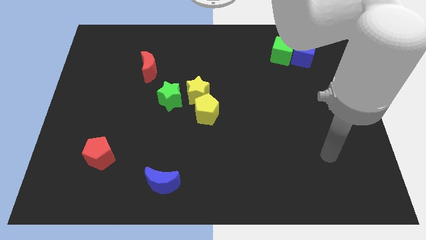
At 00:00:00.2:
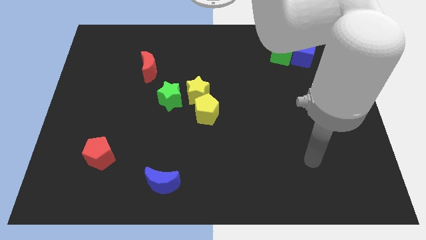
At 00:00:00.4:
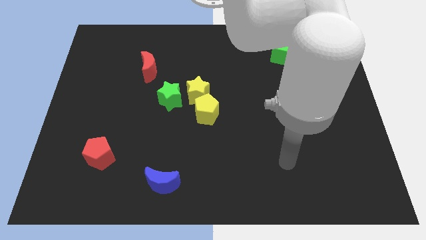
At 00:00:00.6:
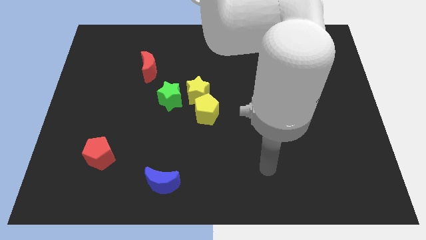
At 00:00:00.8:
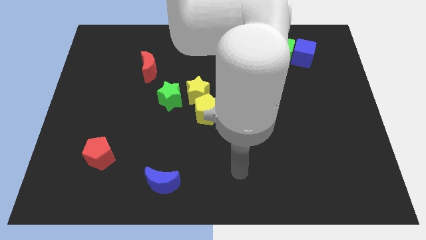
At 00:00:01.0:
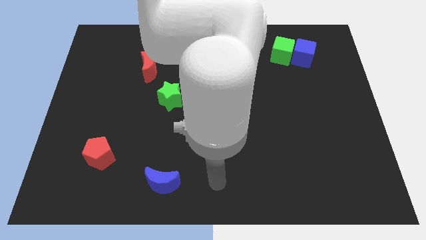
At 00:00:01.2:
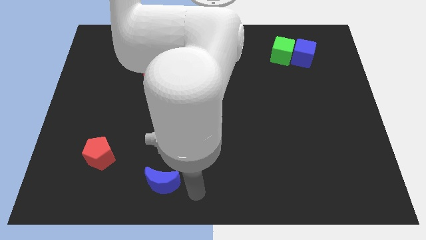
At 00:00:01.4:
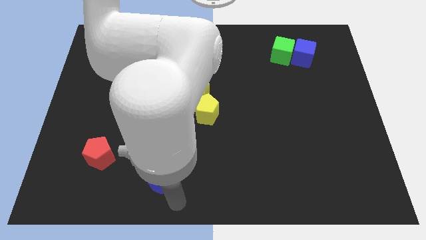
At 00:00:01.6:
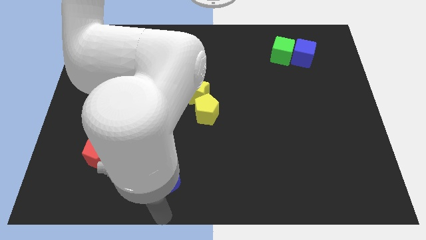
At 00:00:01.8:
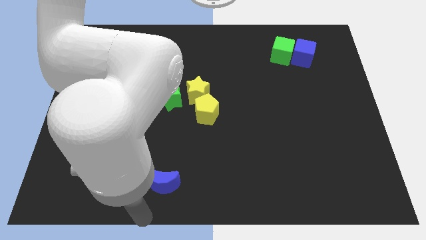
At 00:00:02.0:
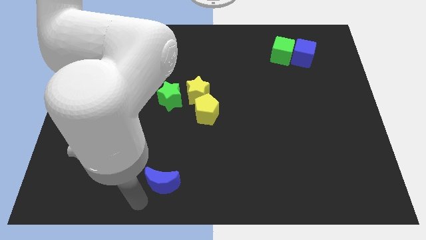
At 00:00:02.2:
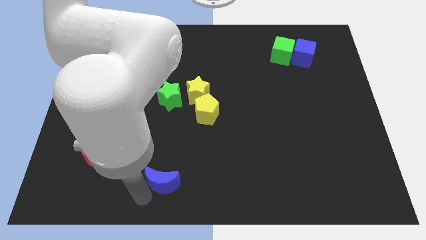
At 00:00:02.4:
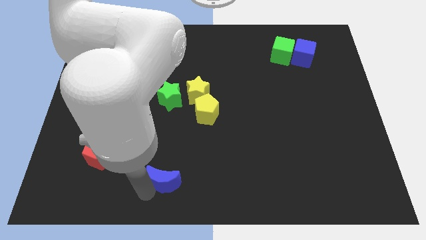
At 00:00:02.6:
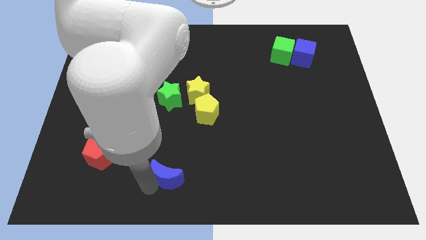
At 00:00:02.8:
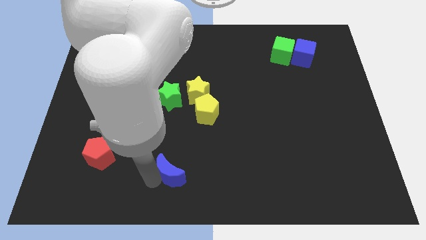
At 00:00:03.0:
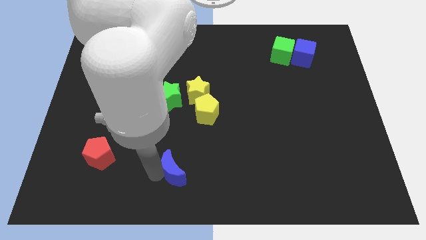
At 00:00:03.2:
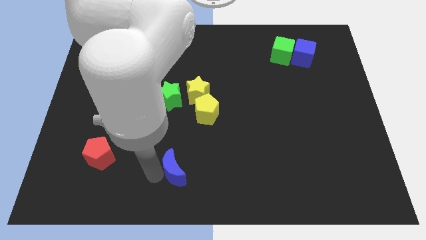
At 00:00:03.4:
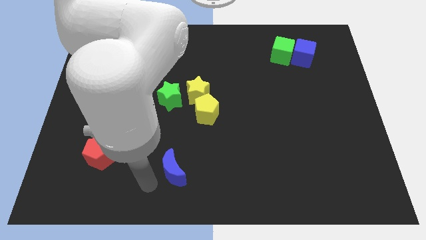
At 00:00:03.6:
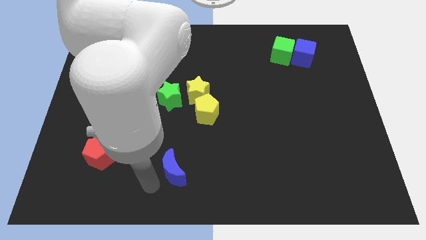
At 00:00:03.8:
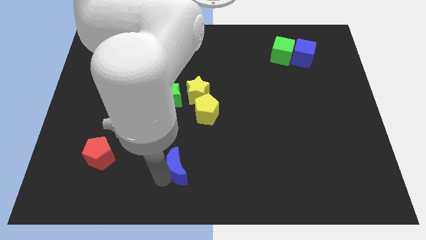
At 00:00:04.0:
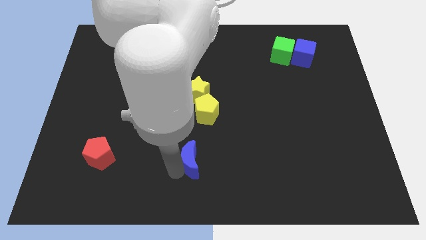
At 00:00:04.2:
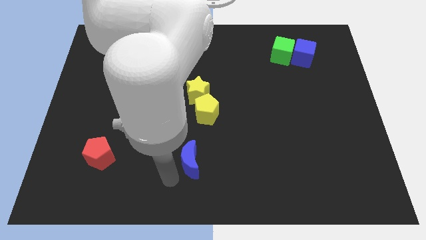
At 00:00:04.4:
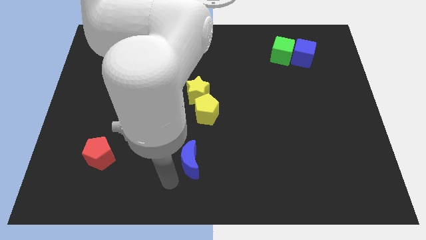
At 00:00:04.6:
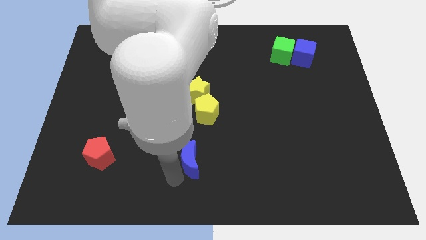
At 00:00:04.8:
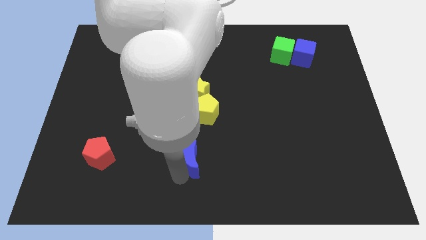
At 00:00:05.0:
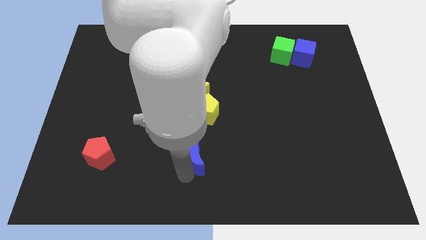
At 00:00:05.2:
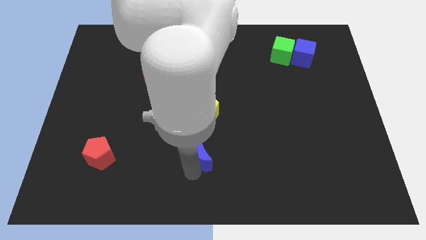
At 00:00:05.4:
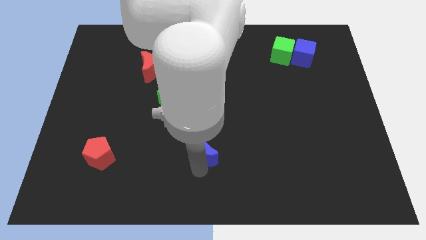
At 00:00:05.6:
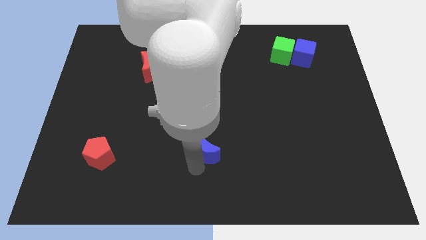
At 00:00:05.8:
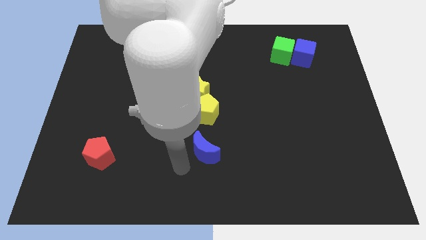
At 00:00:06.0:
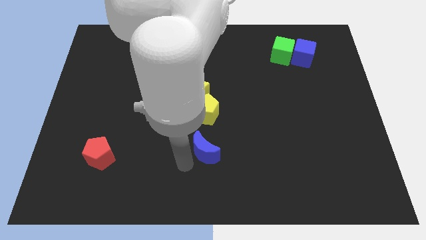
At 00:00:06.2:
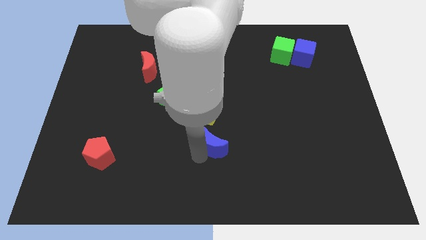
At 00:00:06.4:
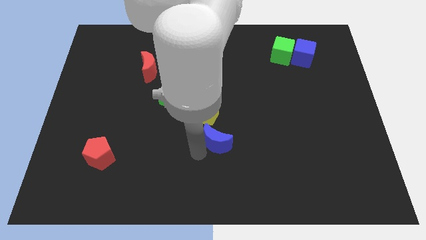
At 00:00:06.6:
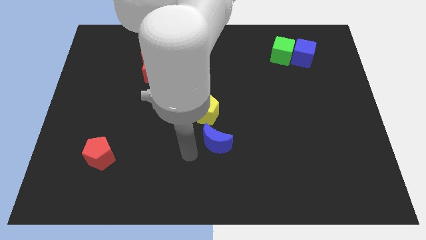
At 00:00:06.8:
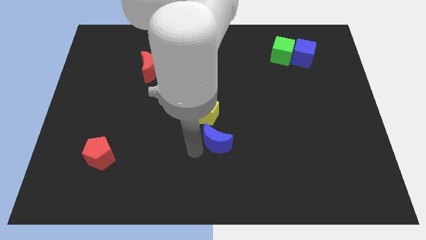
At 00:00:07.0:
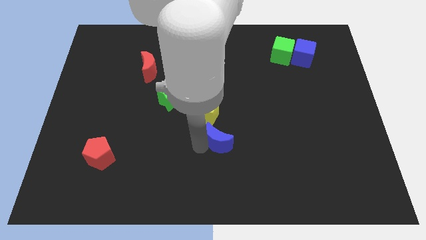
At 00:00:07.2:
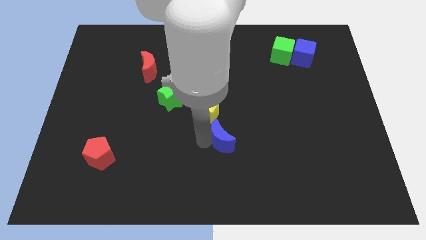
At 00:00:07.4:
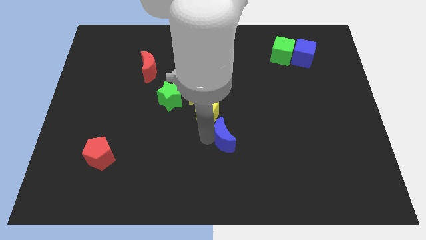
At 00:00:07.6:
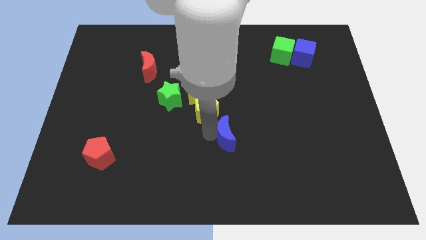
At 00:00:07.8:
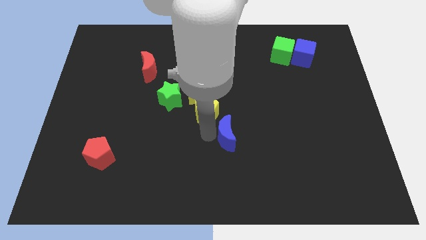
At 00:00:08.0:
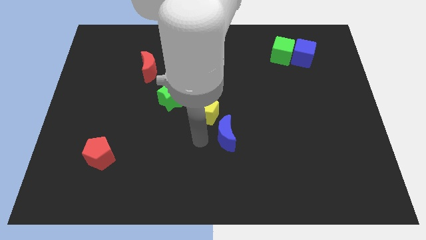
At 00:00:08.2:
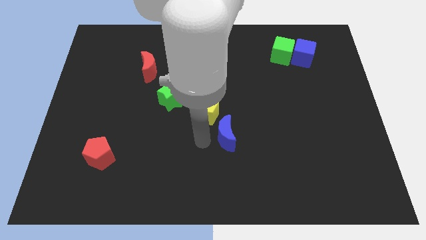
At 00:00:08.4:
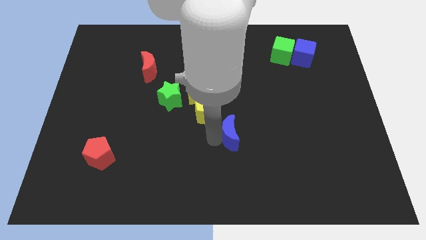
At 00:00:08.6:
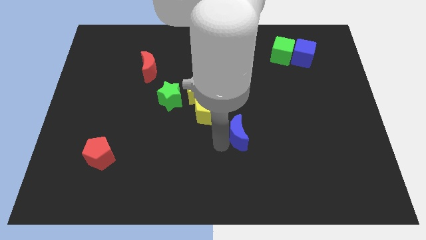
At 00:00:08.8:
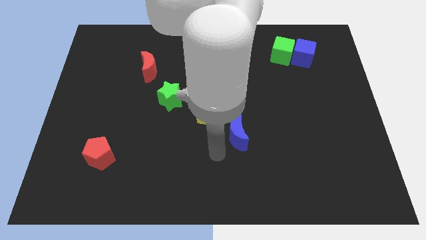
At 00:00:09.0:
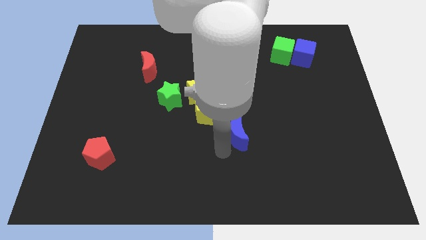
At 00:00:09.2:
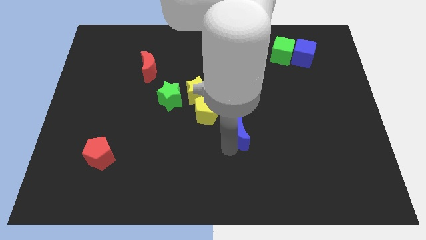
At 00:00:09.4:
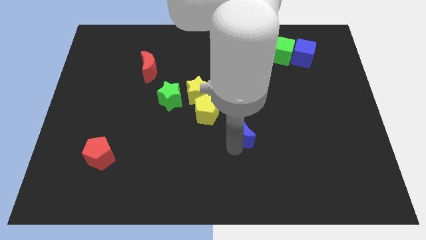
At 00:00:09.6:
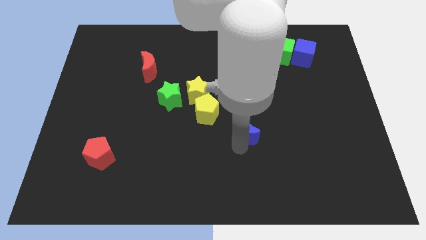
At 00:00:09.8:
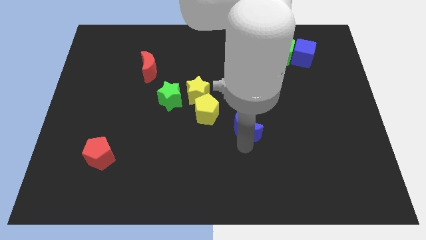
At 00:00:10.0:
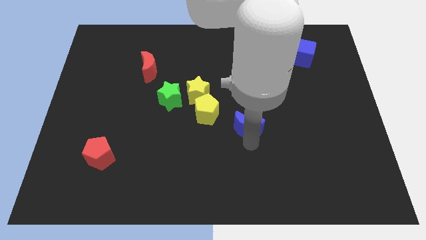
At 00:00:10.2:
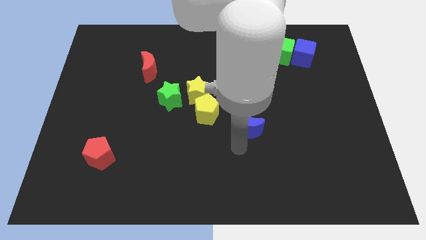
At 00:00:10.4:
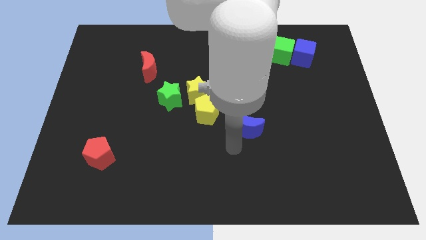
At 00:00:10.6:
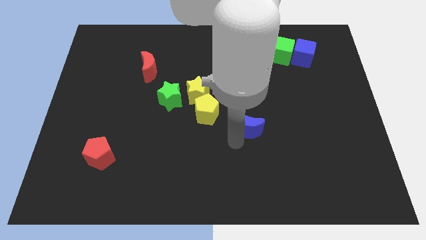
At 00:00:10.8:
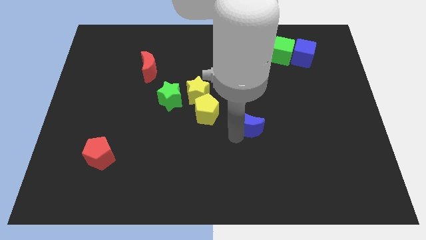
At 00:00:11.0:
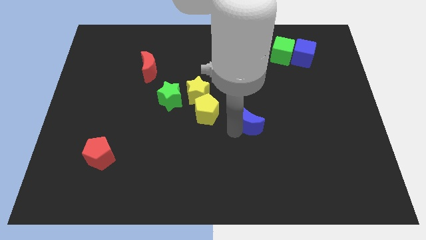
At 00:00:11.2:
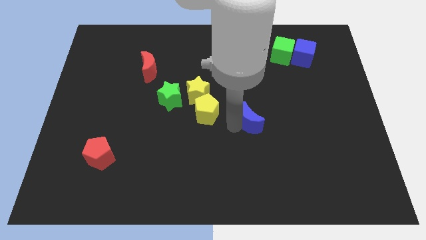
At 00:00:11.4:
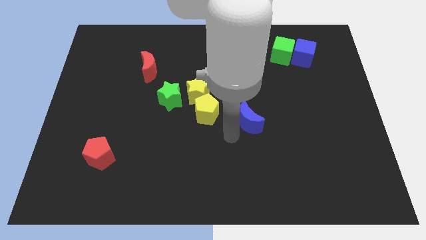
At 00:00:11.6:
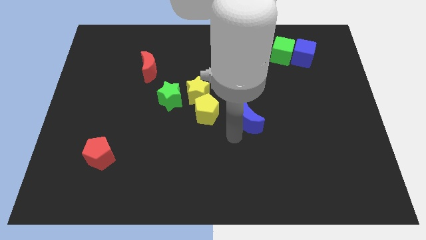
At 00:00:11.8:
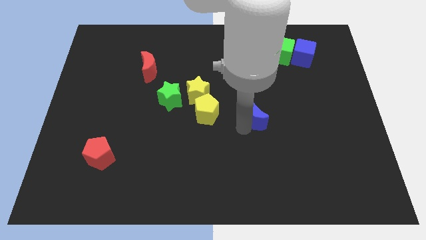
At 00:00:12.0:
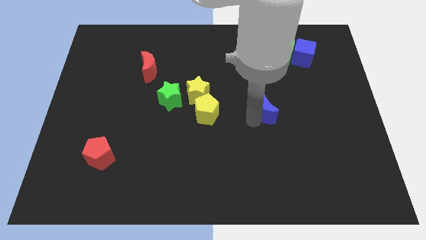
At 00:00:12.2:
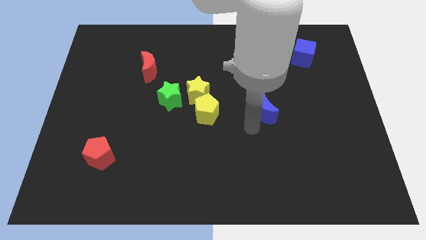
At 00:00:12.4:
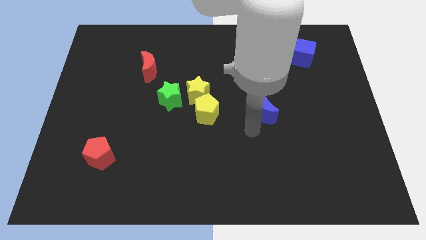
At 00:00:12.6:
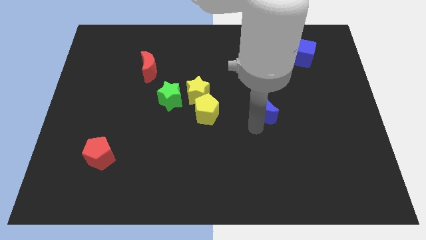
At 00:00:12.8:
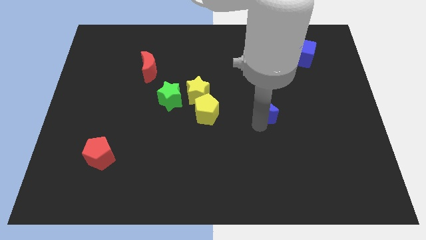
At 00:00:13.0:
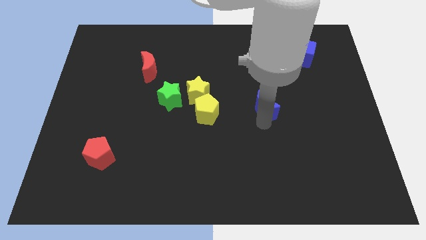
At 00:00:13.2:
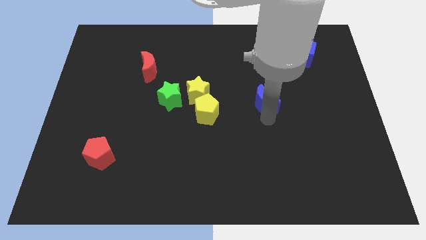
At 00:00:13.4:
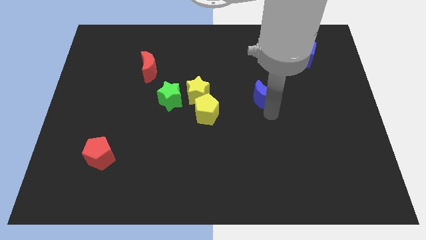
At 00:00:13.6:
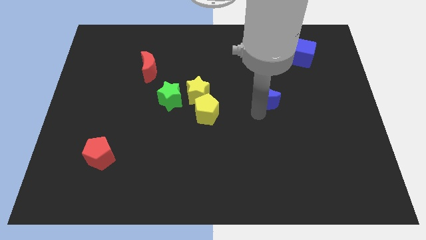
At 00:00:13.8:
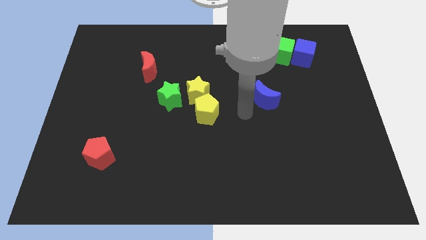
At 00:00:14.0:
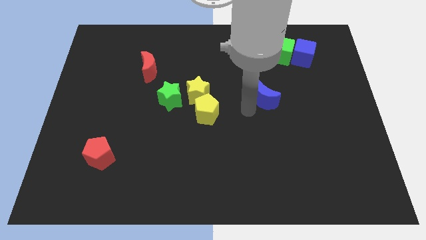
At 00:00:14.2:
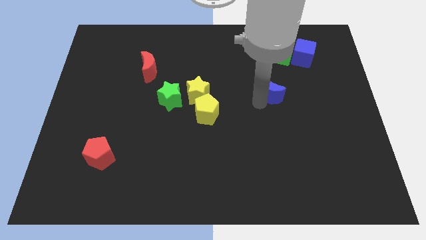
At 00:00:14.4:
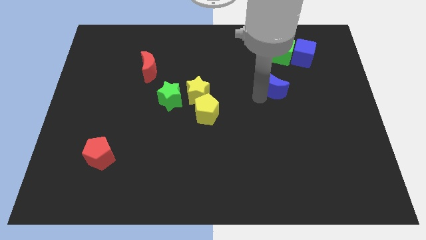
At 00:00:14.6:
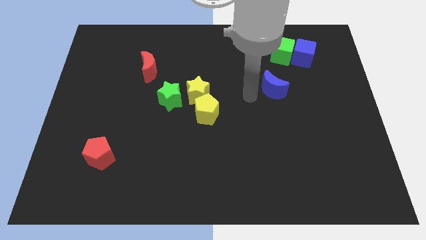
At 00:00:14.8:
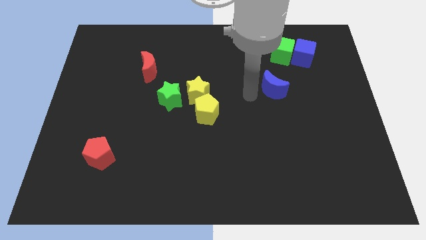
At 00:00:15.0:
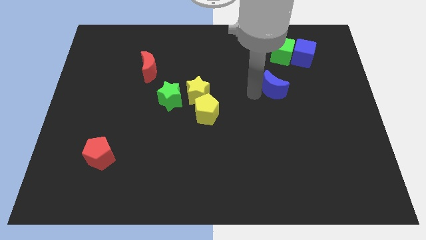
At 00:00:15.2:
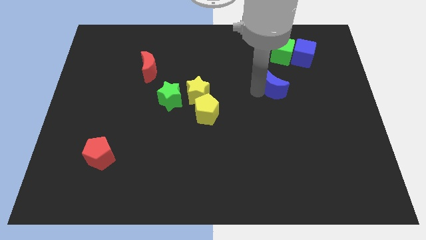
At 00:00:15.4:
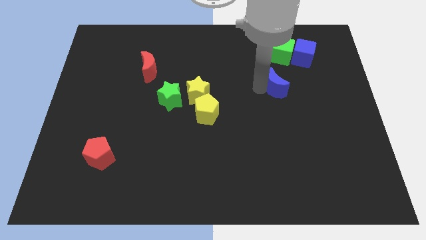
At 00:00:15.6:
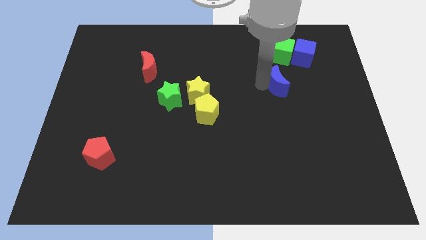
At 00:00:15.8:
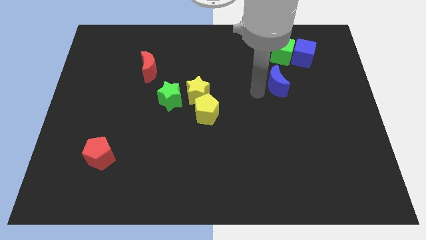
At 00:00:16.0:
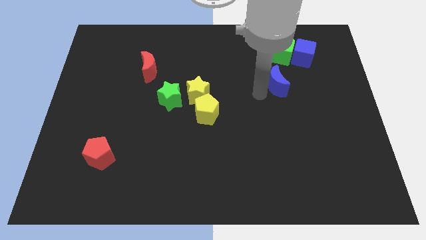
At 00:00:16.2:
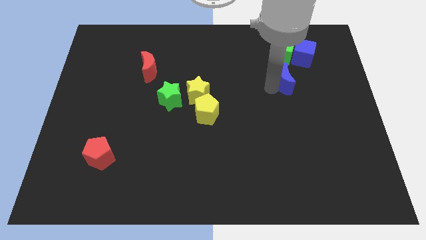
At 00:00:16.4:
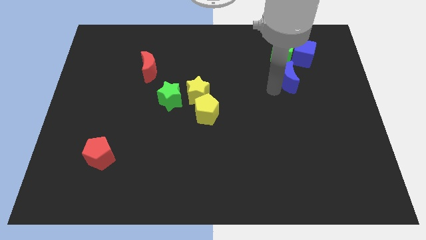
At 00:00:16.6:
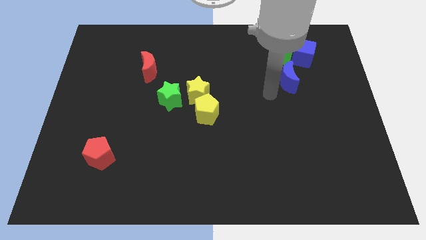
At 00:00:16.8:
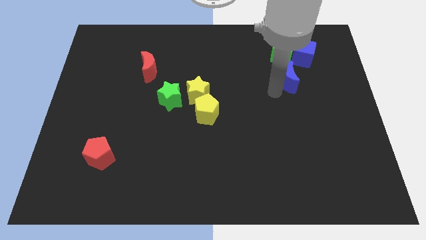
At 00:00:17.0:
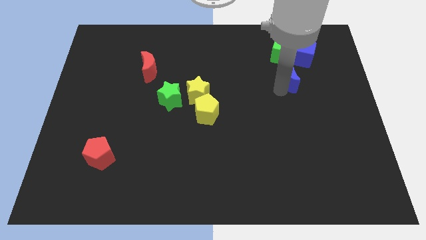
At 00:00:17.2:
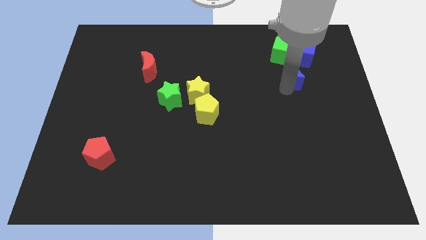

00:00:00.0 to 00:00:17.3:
slide the blue moon diagonally down and to the right of the green cube
